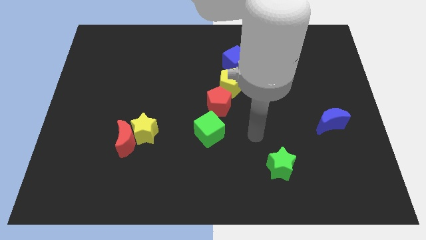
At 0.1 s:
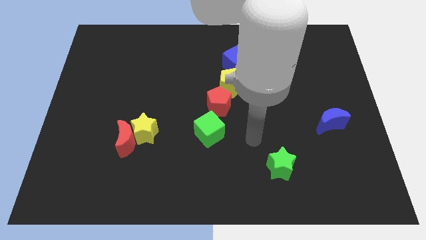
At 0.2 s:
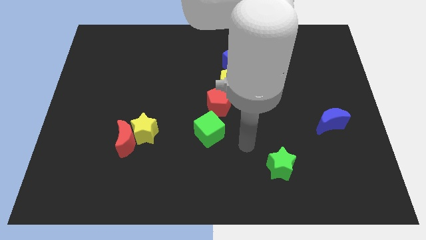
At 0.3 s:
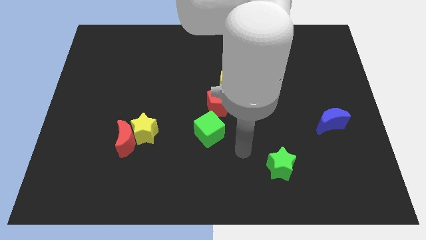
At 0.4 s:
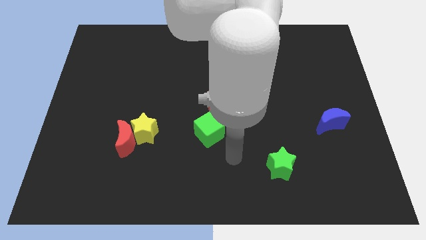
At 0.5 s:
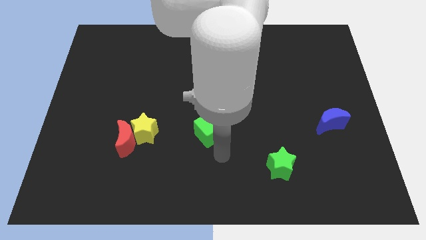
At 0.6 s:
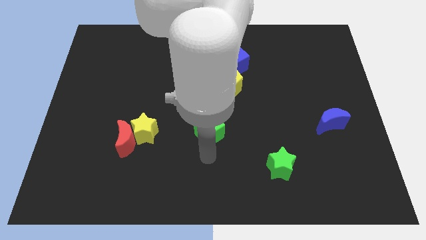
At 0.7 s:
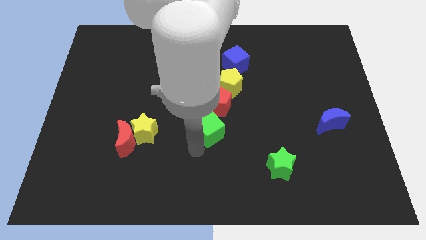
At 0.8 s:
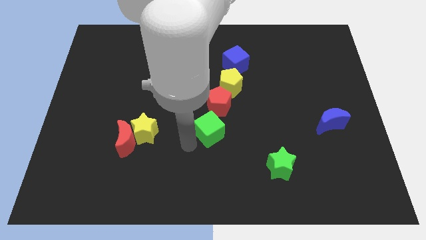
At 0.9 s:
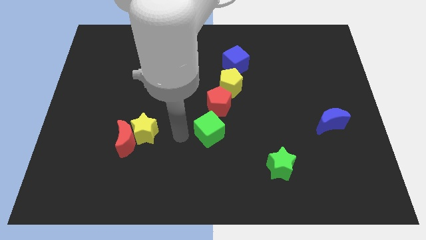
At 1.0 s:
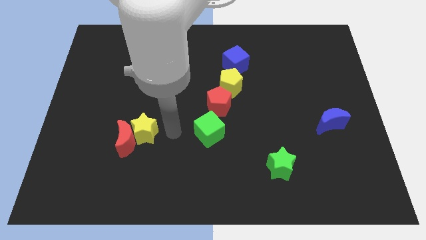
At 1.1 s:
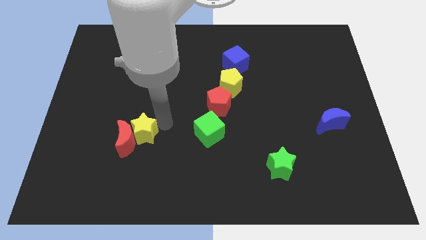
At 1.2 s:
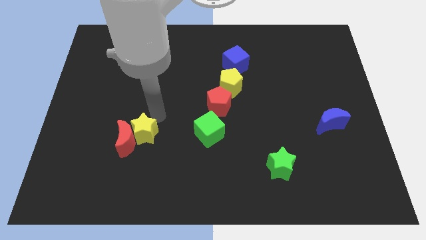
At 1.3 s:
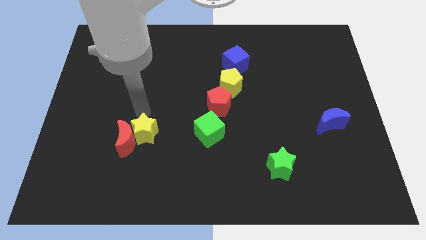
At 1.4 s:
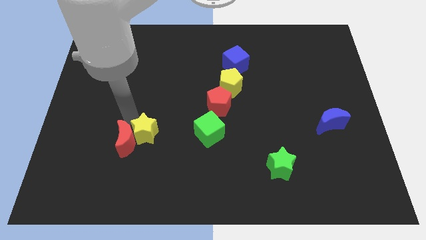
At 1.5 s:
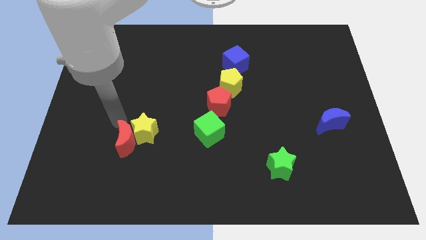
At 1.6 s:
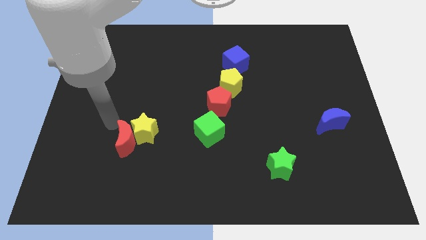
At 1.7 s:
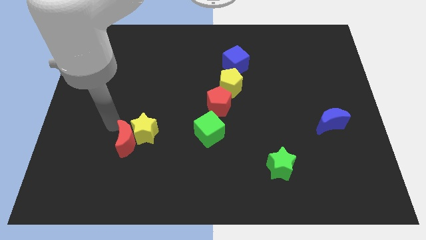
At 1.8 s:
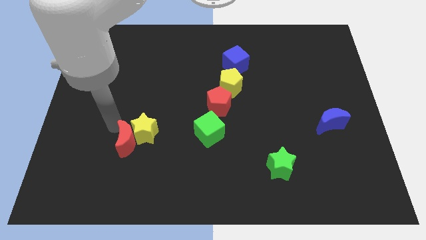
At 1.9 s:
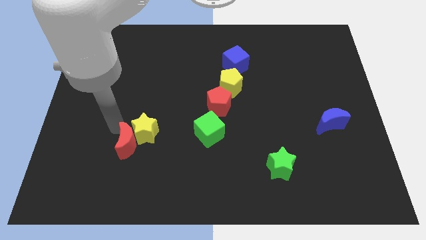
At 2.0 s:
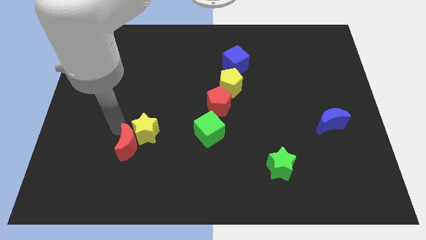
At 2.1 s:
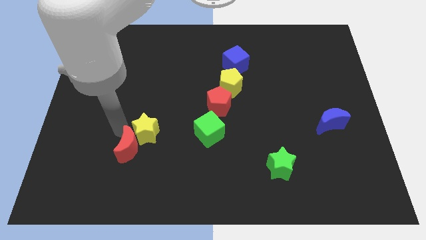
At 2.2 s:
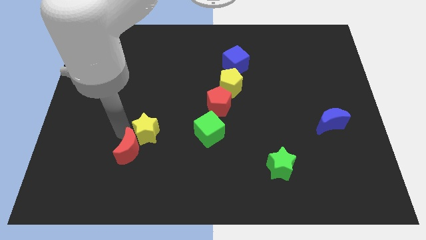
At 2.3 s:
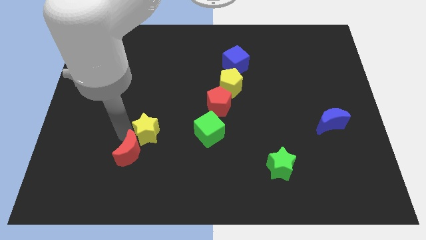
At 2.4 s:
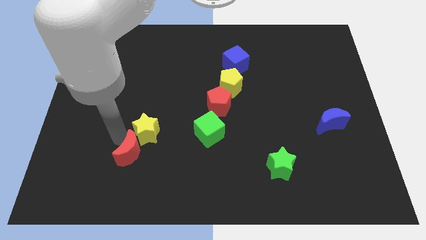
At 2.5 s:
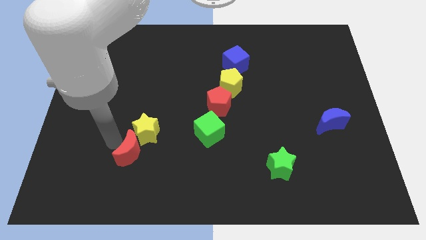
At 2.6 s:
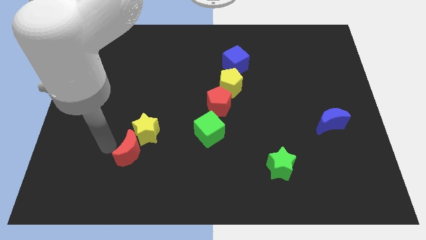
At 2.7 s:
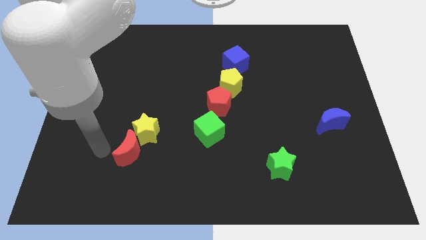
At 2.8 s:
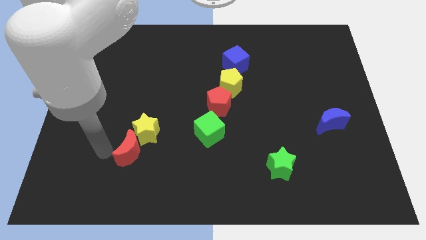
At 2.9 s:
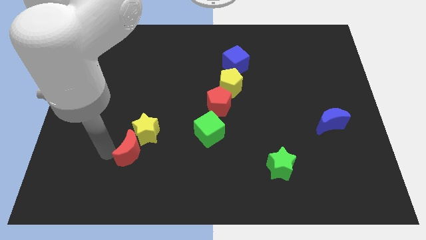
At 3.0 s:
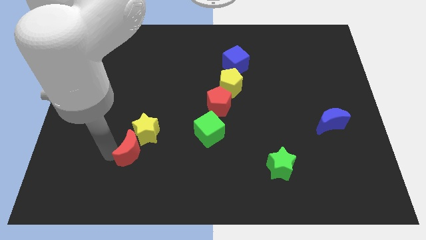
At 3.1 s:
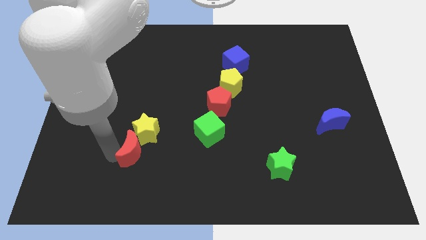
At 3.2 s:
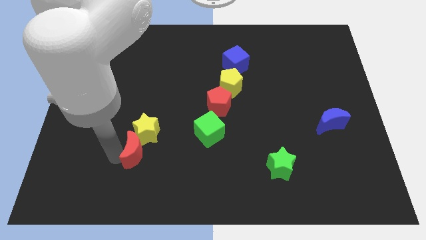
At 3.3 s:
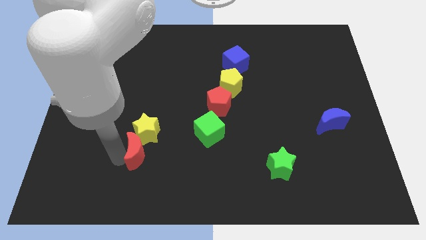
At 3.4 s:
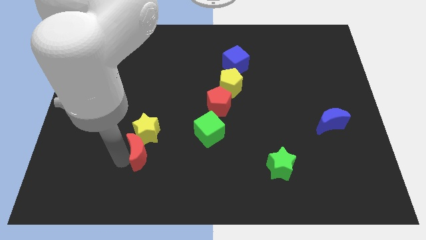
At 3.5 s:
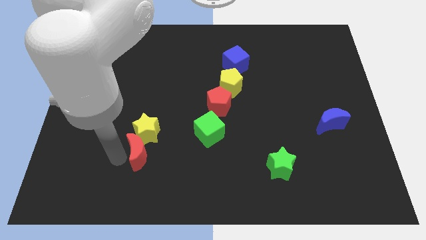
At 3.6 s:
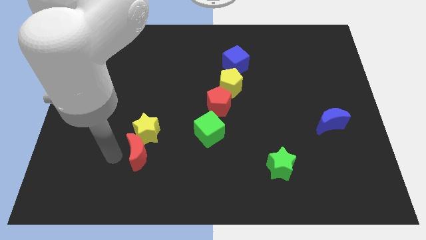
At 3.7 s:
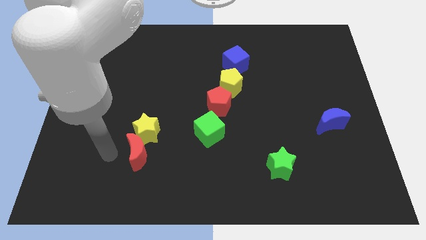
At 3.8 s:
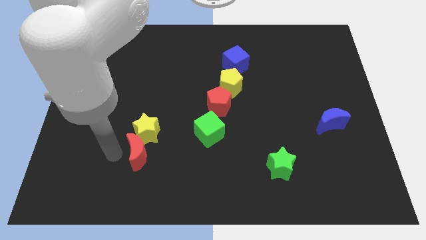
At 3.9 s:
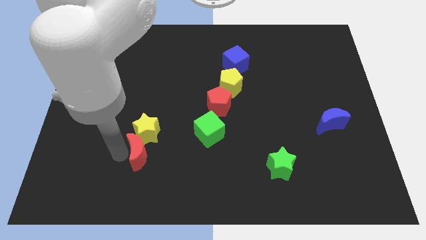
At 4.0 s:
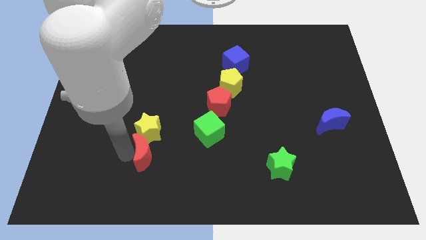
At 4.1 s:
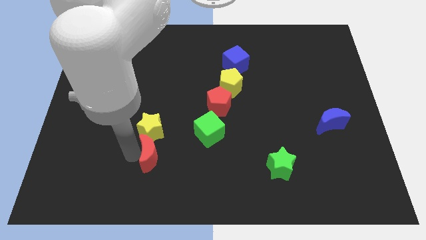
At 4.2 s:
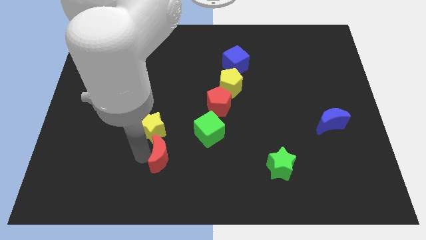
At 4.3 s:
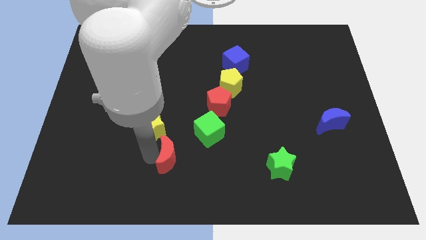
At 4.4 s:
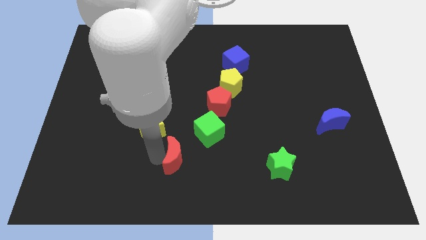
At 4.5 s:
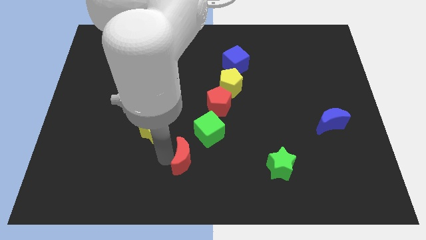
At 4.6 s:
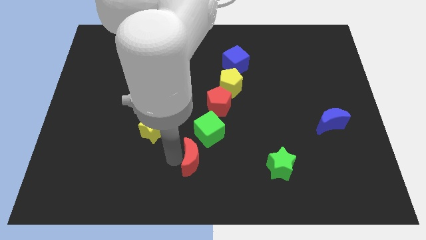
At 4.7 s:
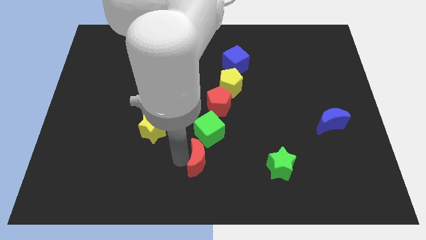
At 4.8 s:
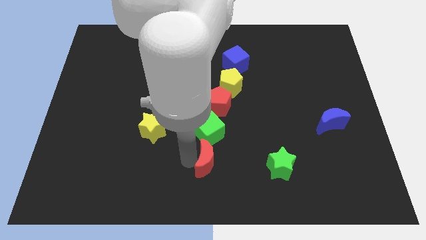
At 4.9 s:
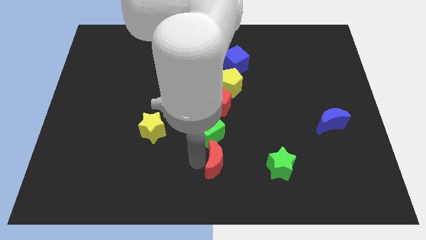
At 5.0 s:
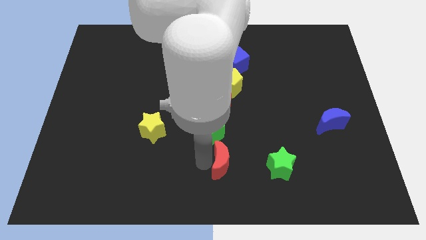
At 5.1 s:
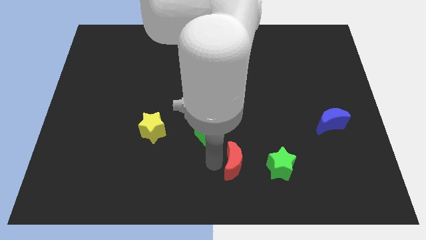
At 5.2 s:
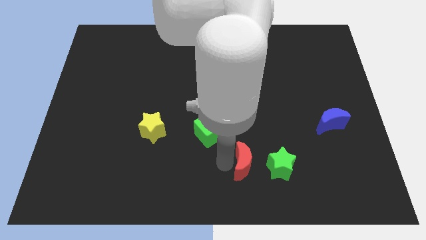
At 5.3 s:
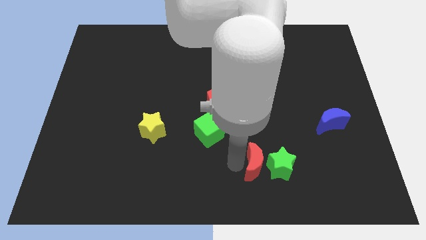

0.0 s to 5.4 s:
push the red moon towards the green star

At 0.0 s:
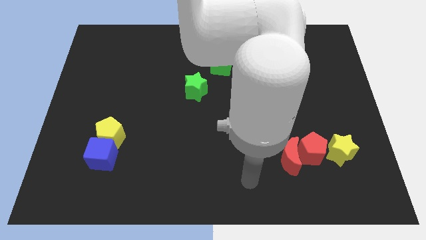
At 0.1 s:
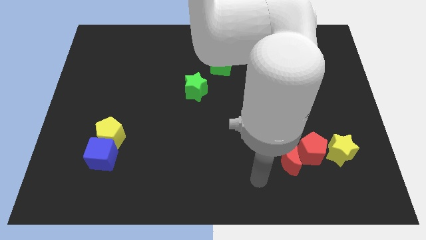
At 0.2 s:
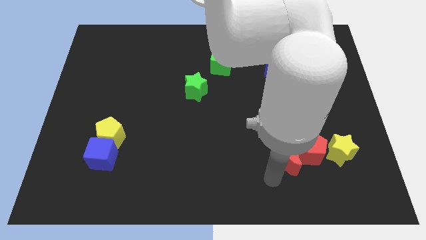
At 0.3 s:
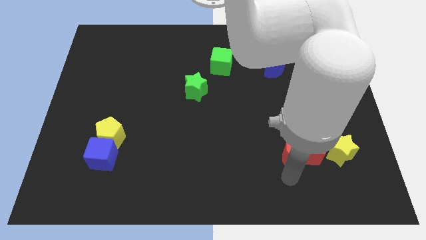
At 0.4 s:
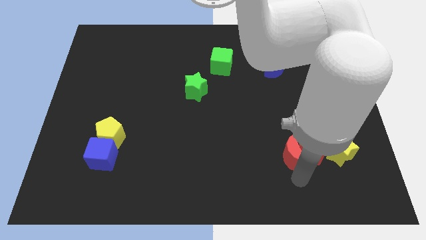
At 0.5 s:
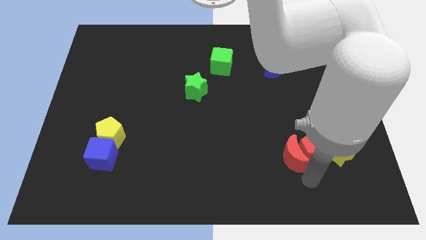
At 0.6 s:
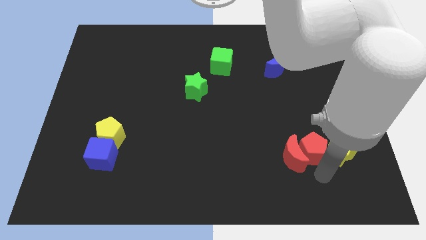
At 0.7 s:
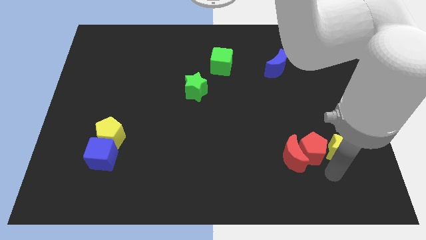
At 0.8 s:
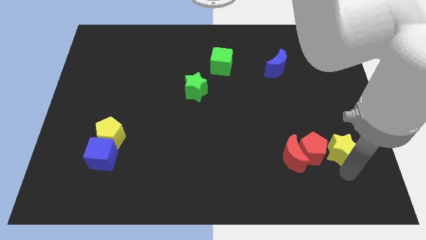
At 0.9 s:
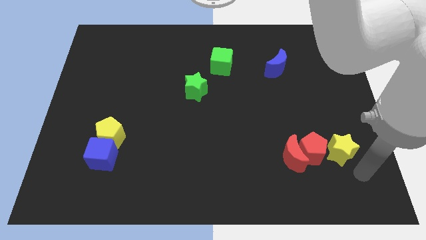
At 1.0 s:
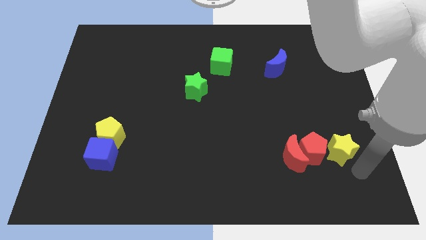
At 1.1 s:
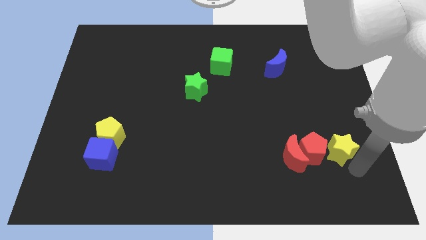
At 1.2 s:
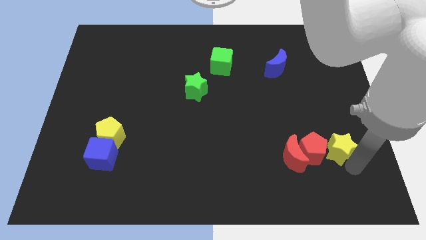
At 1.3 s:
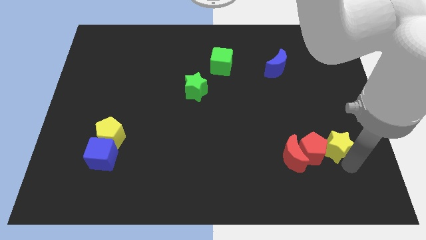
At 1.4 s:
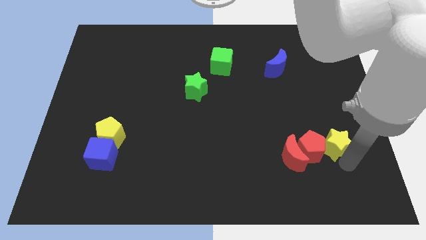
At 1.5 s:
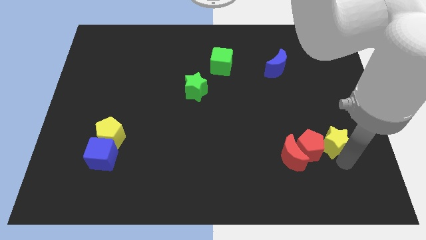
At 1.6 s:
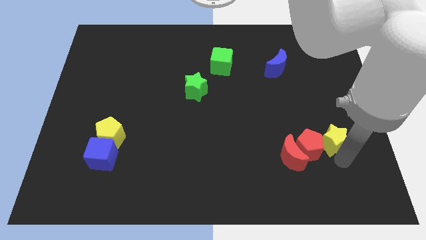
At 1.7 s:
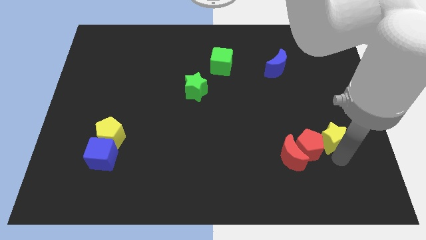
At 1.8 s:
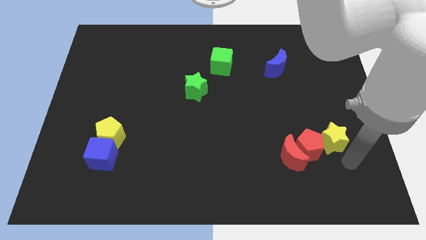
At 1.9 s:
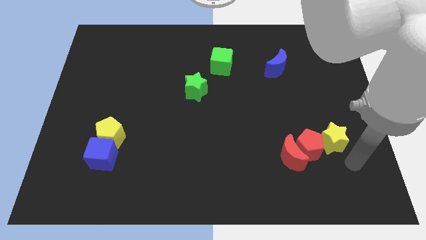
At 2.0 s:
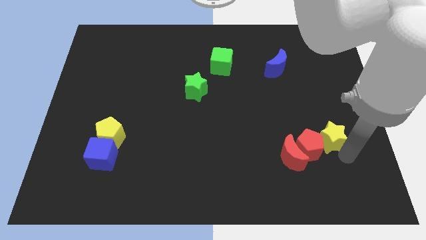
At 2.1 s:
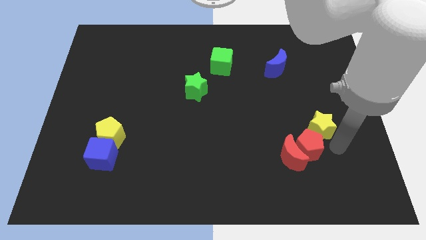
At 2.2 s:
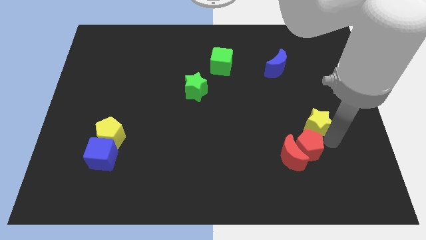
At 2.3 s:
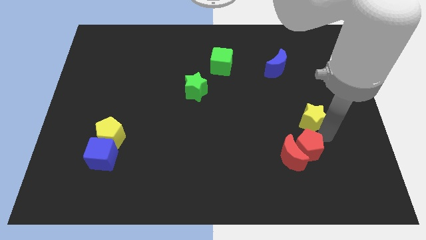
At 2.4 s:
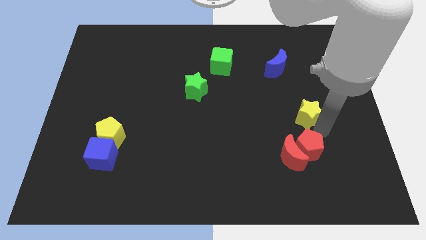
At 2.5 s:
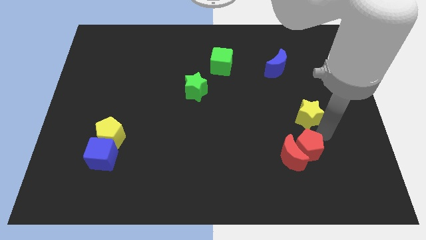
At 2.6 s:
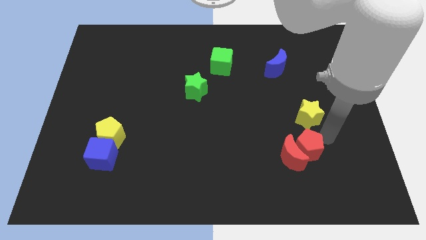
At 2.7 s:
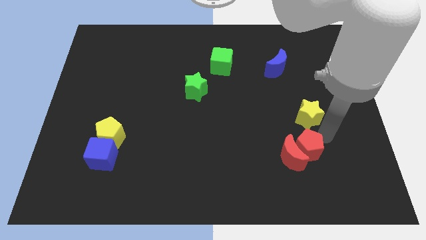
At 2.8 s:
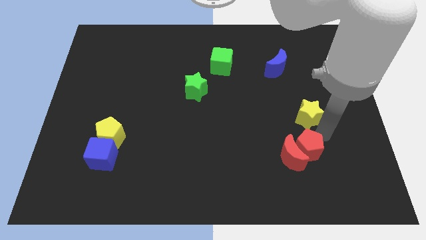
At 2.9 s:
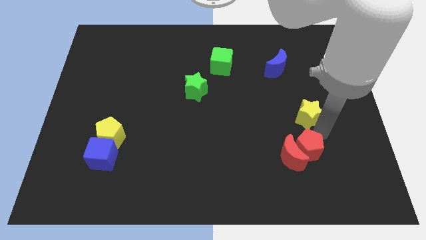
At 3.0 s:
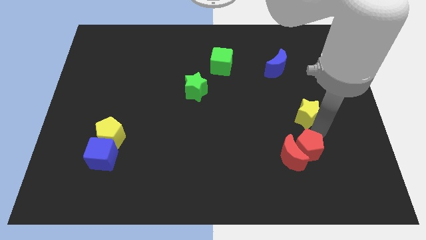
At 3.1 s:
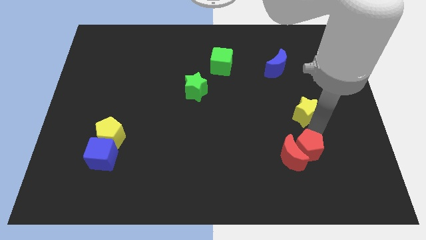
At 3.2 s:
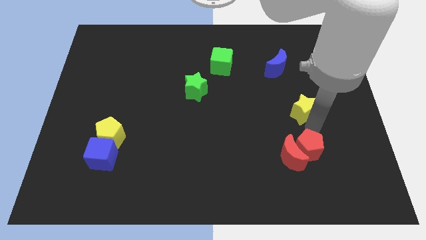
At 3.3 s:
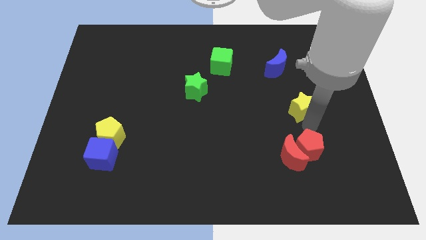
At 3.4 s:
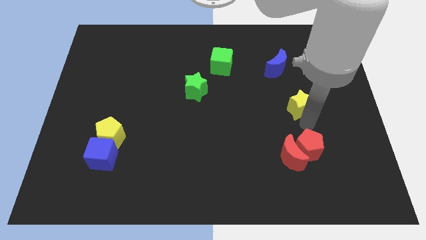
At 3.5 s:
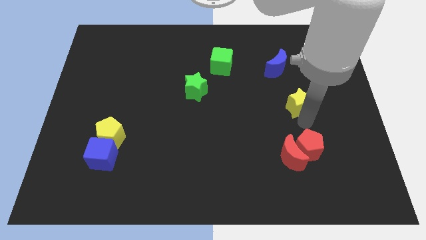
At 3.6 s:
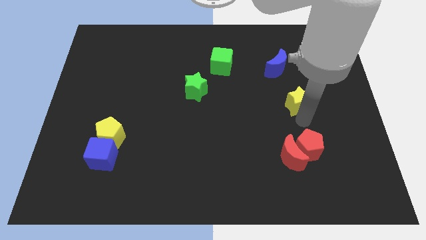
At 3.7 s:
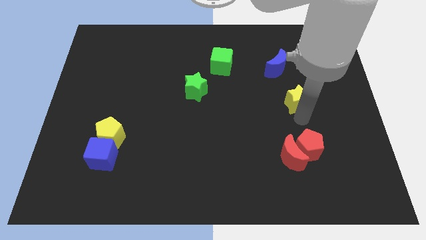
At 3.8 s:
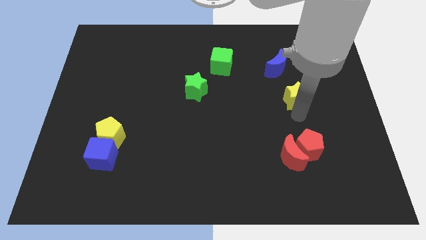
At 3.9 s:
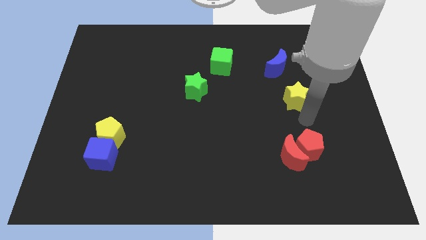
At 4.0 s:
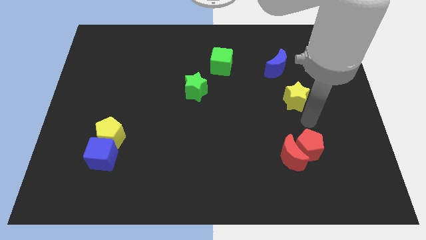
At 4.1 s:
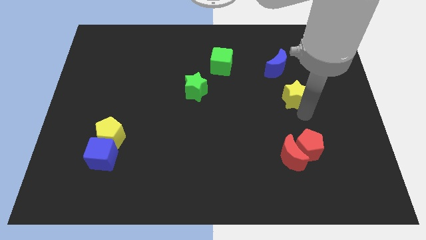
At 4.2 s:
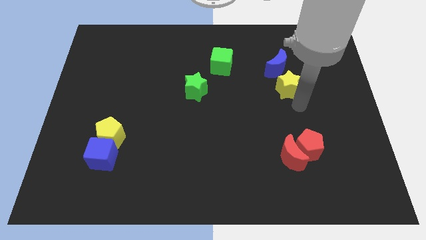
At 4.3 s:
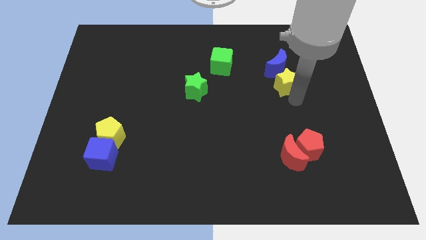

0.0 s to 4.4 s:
move the yellow star to the blue moon
